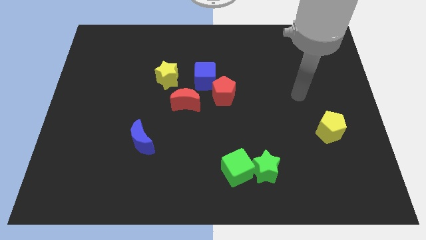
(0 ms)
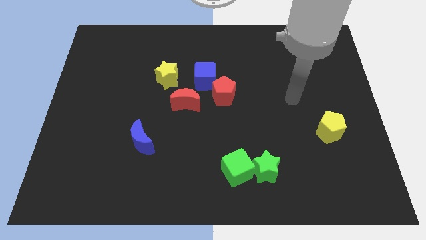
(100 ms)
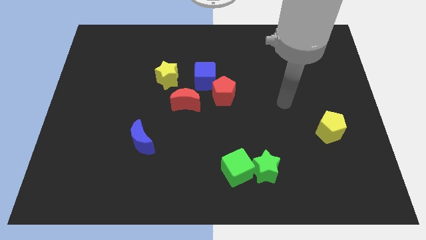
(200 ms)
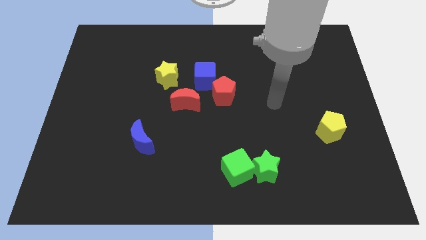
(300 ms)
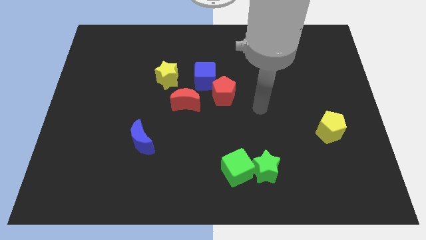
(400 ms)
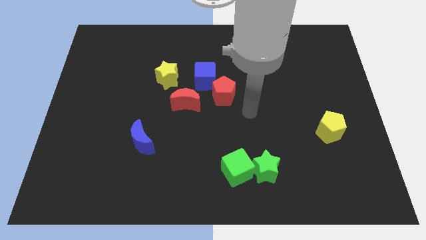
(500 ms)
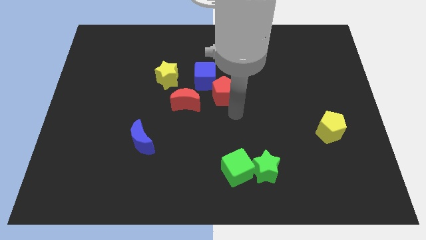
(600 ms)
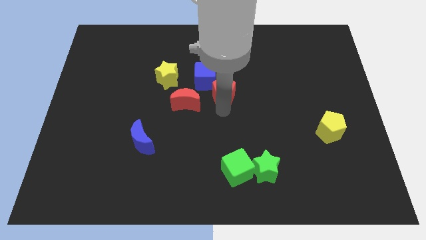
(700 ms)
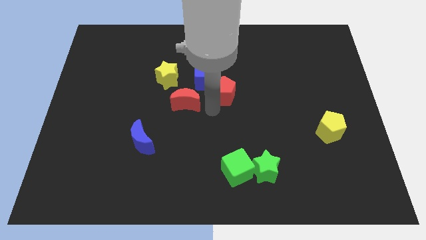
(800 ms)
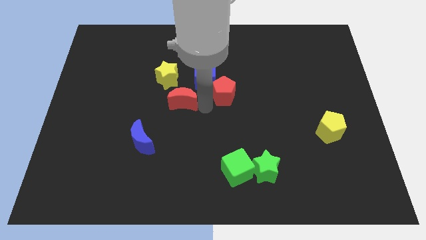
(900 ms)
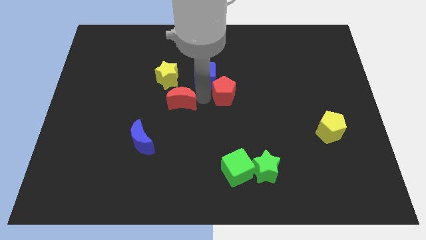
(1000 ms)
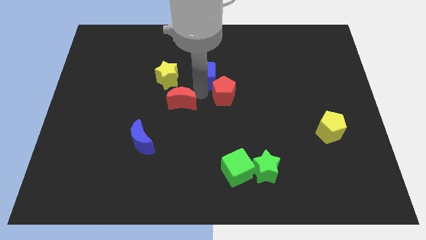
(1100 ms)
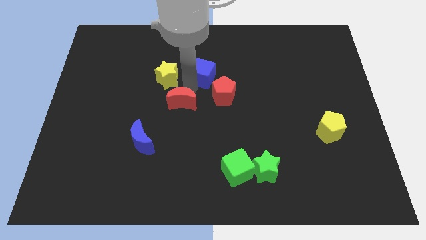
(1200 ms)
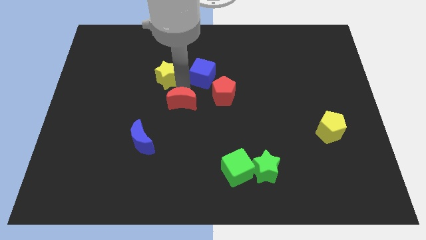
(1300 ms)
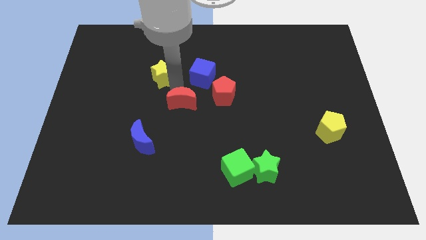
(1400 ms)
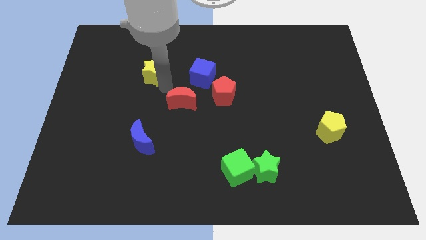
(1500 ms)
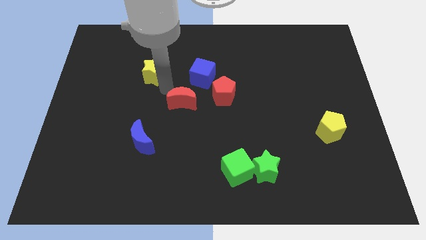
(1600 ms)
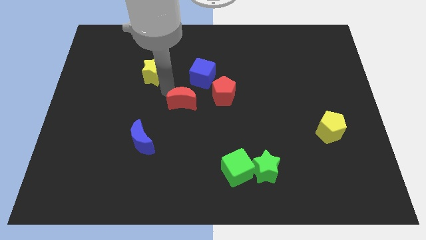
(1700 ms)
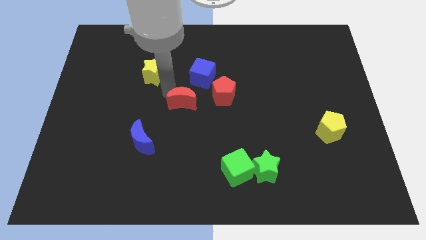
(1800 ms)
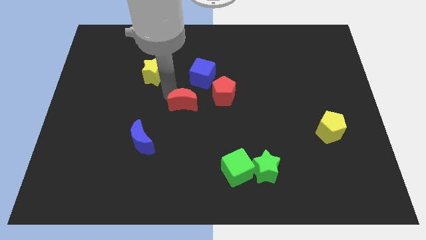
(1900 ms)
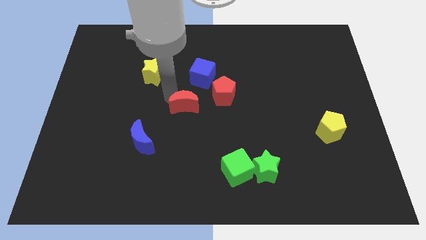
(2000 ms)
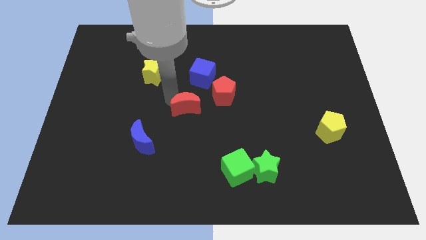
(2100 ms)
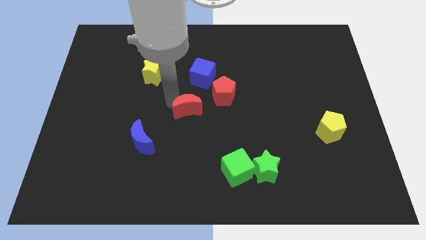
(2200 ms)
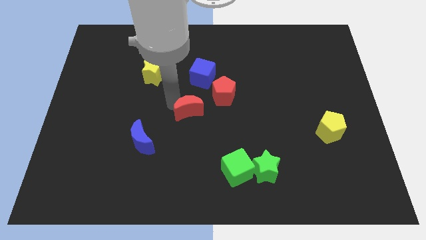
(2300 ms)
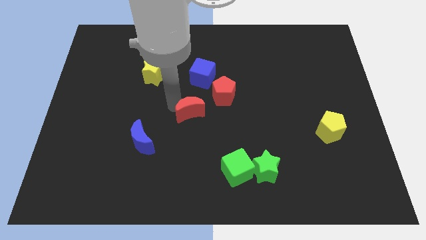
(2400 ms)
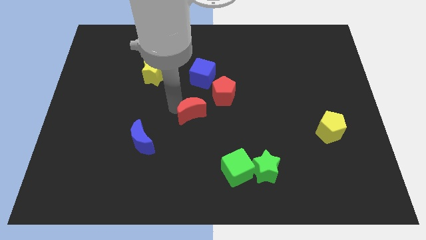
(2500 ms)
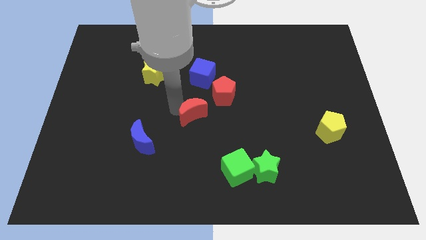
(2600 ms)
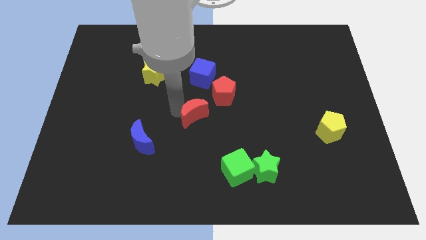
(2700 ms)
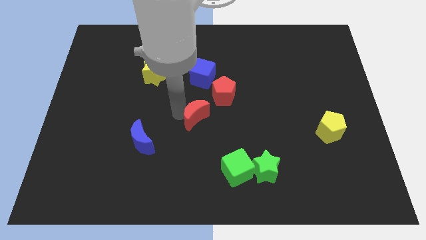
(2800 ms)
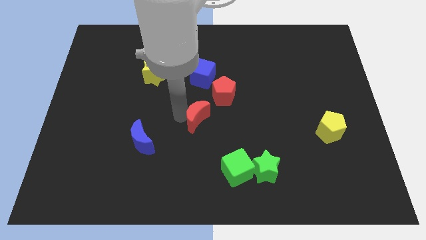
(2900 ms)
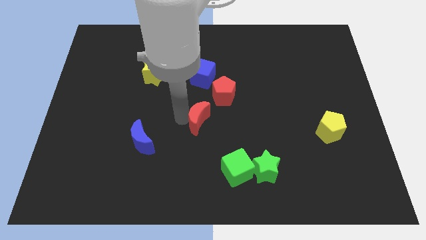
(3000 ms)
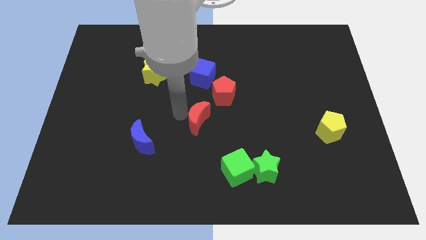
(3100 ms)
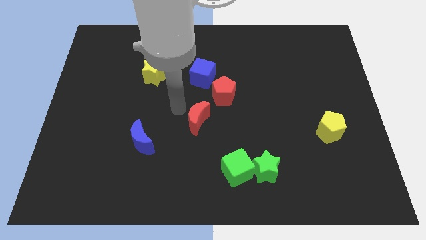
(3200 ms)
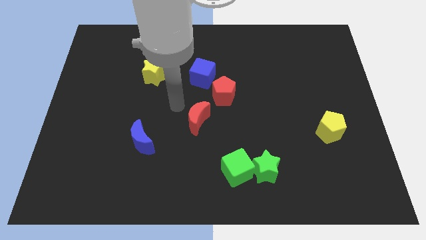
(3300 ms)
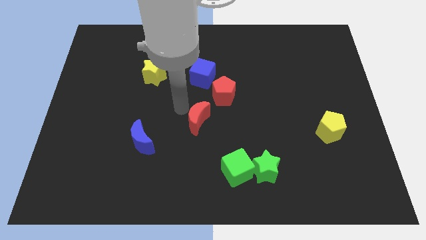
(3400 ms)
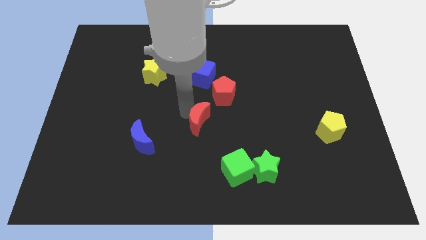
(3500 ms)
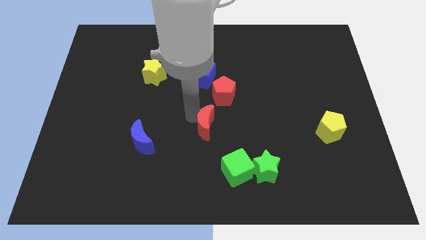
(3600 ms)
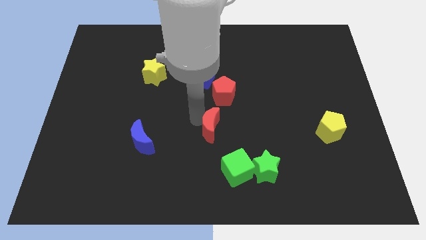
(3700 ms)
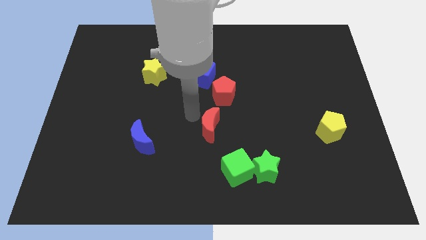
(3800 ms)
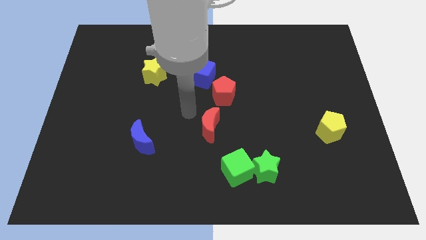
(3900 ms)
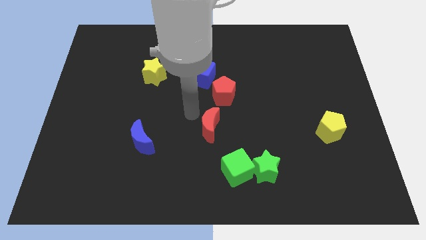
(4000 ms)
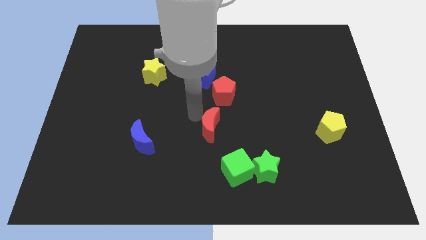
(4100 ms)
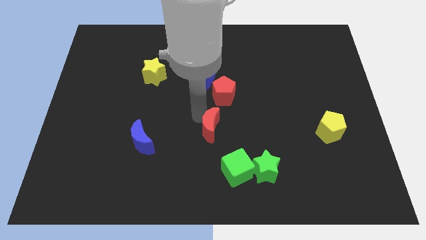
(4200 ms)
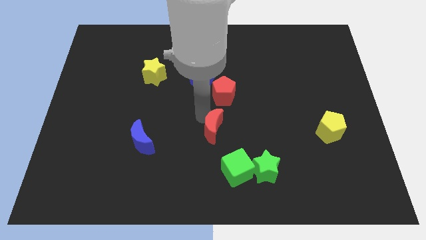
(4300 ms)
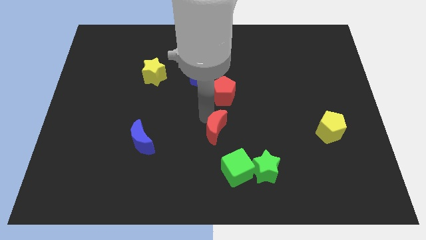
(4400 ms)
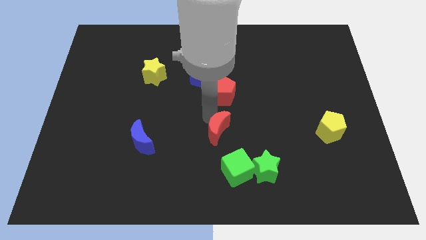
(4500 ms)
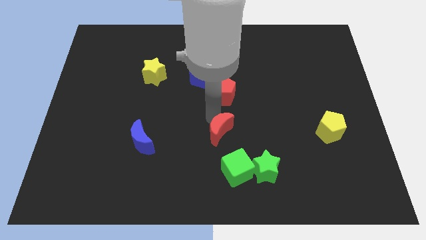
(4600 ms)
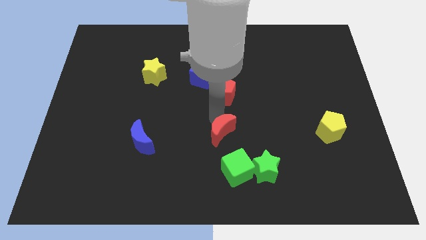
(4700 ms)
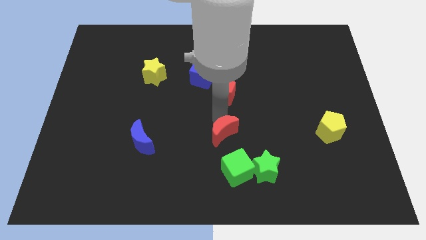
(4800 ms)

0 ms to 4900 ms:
push the red moon to the top left side of the green star

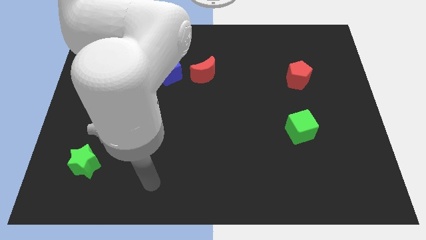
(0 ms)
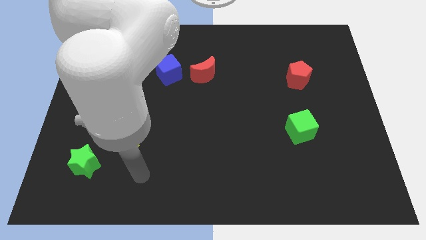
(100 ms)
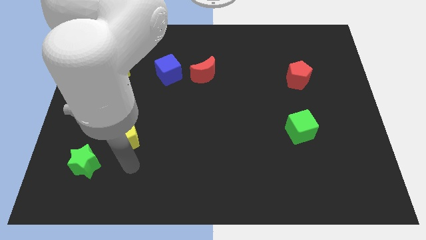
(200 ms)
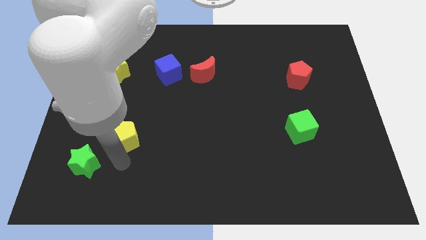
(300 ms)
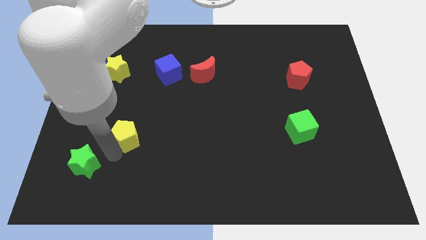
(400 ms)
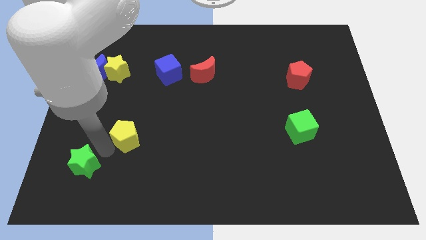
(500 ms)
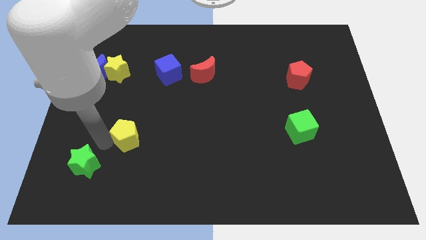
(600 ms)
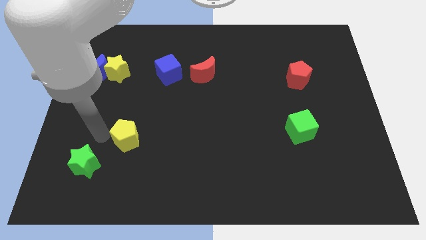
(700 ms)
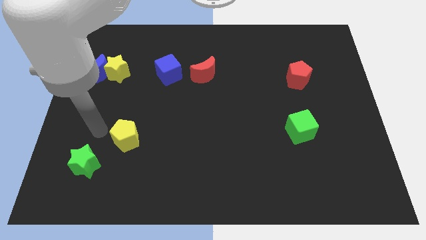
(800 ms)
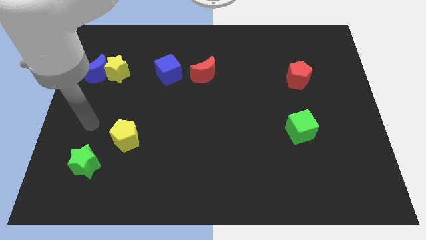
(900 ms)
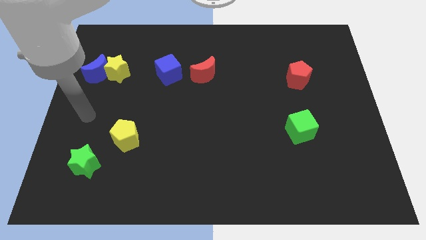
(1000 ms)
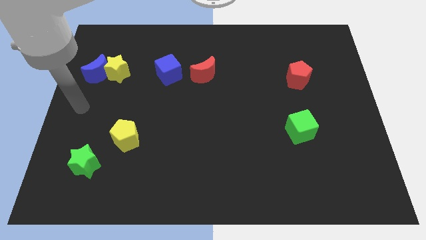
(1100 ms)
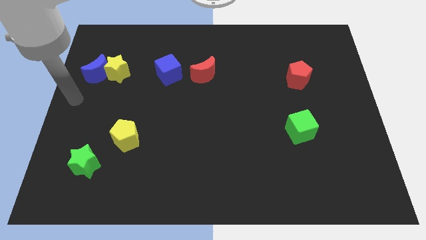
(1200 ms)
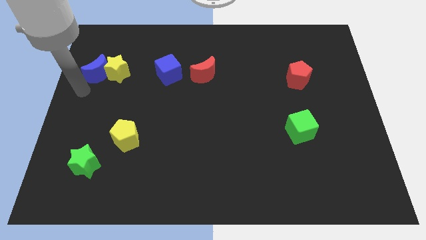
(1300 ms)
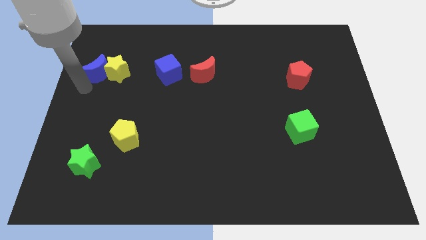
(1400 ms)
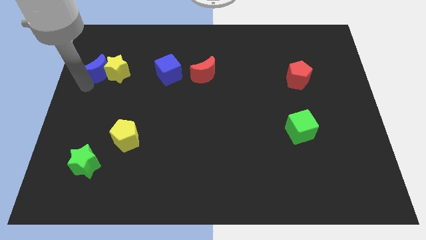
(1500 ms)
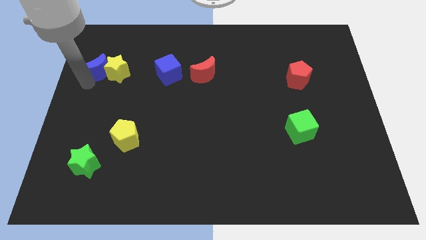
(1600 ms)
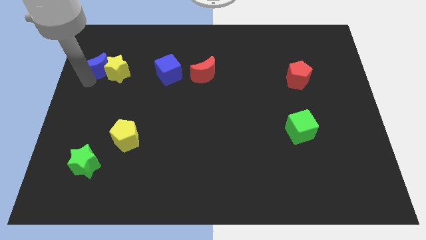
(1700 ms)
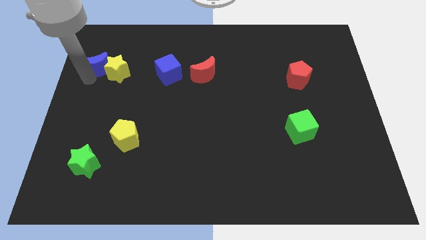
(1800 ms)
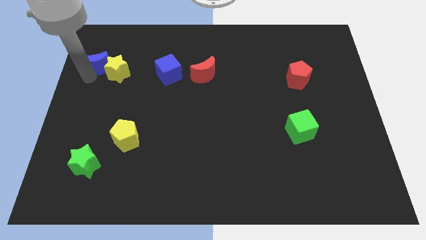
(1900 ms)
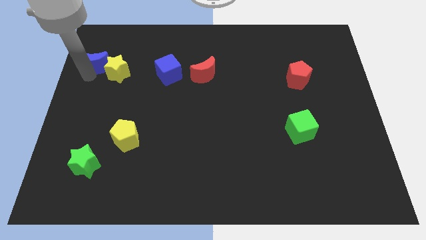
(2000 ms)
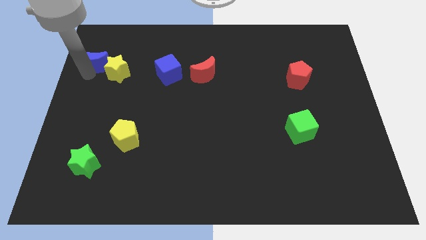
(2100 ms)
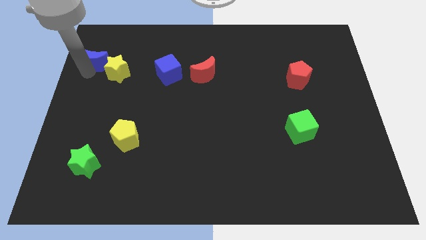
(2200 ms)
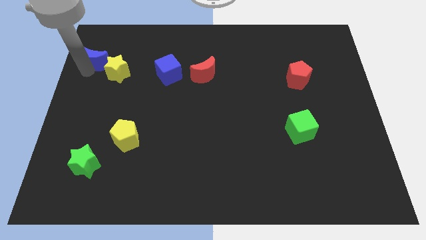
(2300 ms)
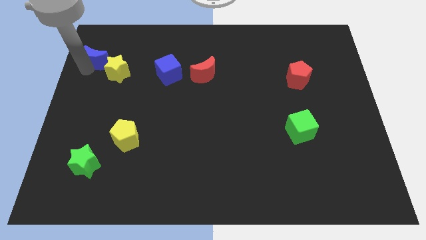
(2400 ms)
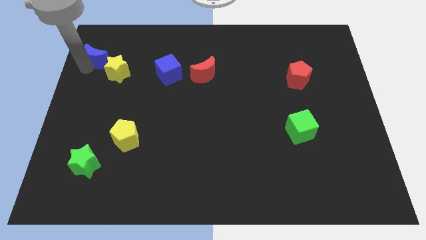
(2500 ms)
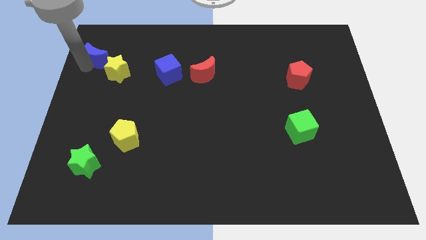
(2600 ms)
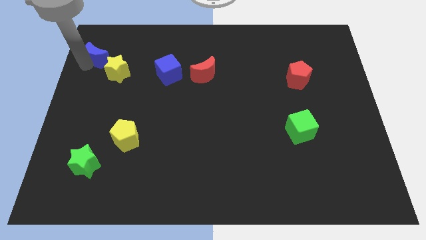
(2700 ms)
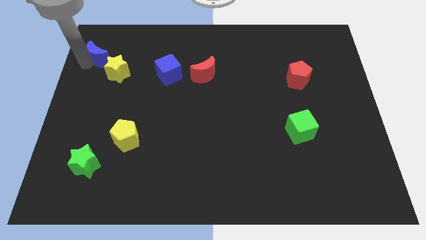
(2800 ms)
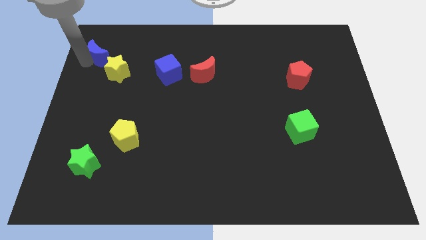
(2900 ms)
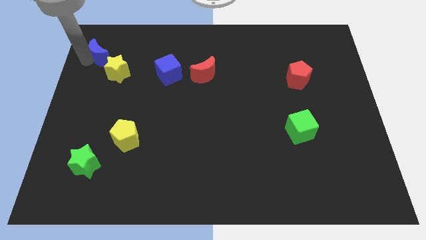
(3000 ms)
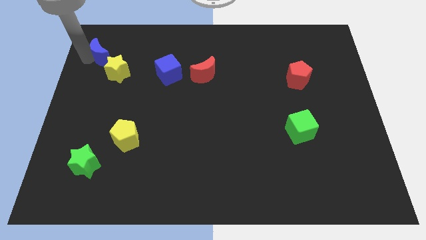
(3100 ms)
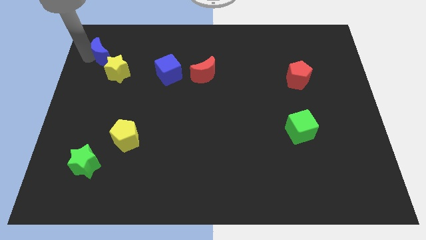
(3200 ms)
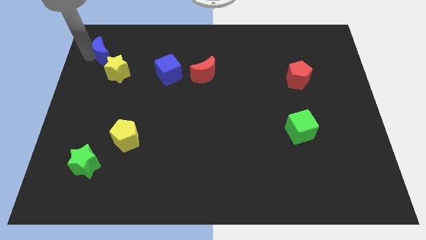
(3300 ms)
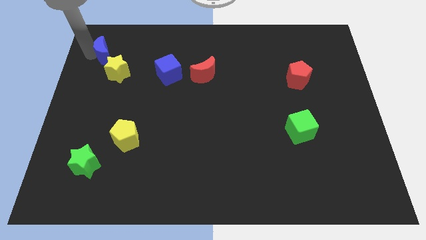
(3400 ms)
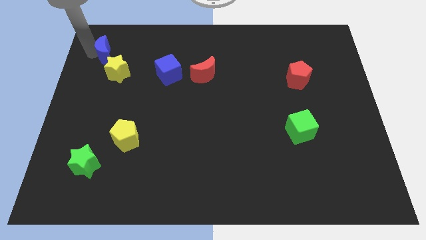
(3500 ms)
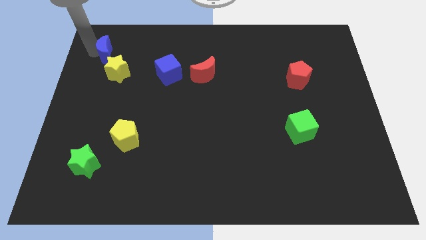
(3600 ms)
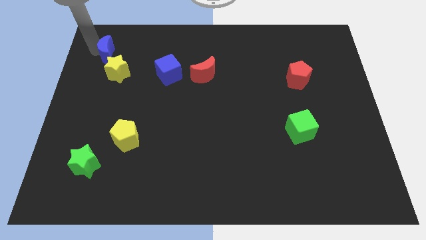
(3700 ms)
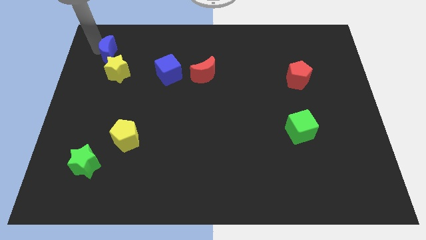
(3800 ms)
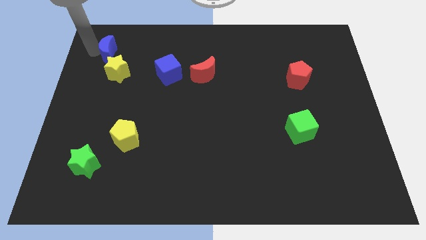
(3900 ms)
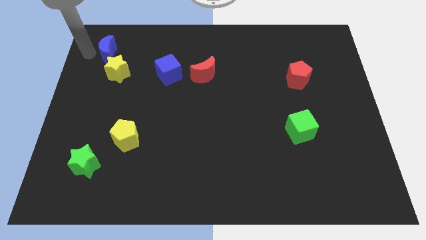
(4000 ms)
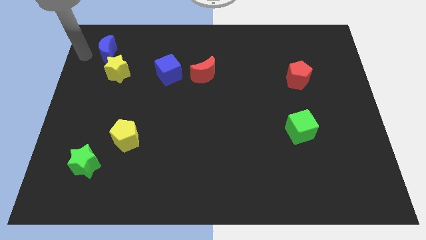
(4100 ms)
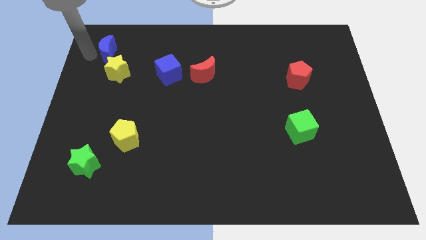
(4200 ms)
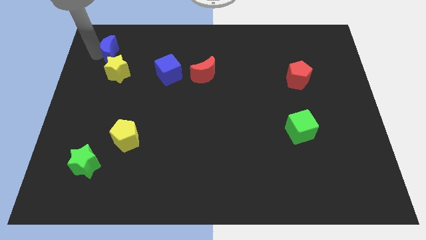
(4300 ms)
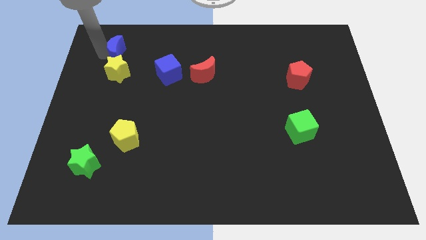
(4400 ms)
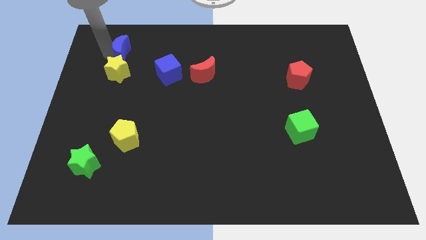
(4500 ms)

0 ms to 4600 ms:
move the blue moon to the top right of the yellow star
